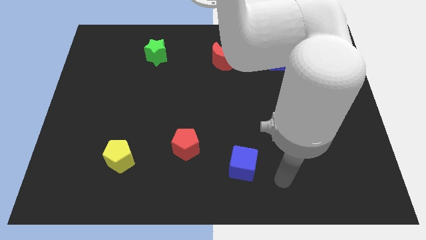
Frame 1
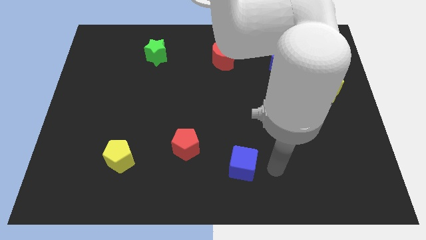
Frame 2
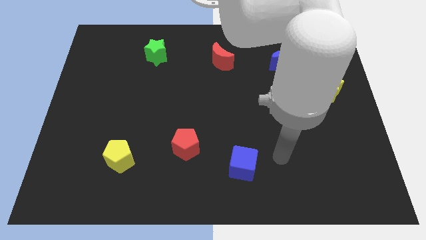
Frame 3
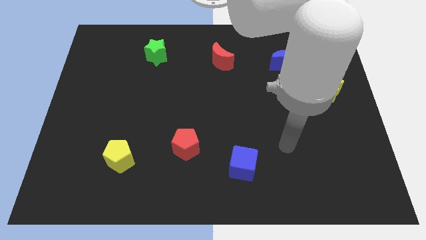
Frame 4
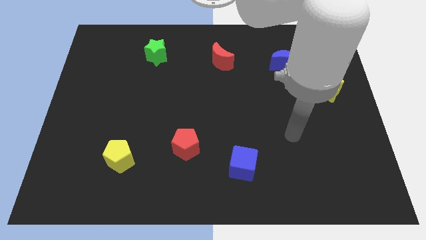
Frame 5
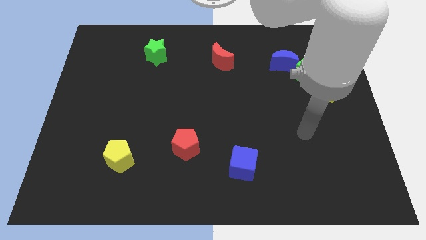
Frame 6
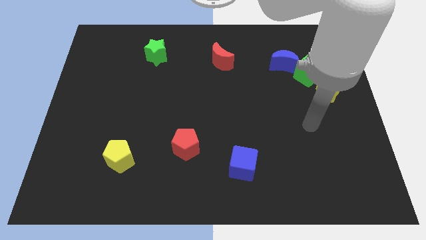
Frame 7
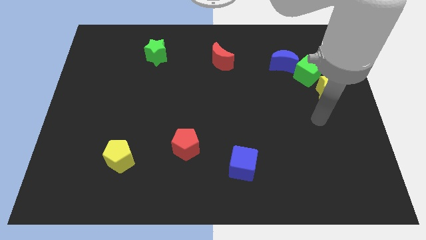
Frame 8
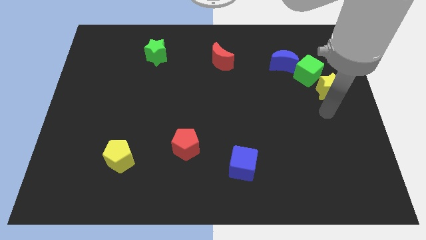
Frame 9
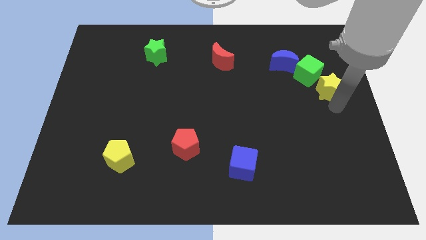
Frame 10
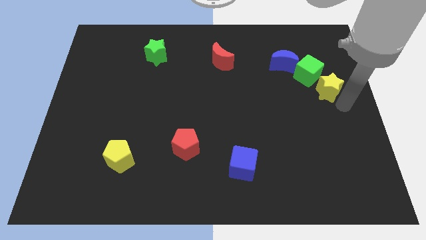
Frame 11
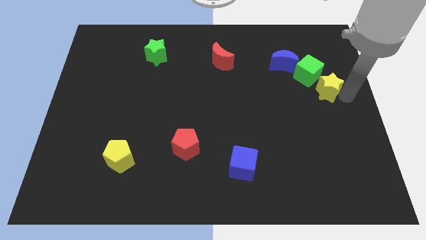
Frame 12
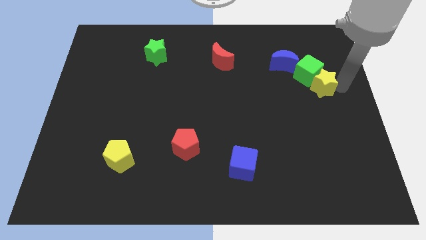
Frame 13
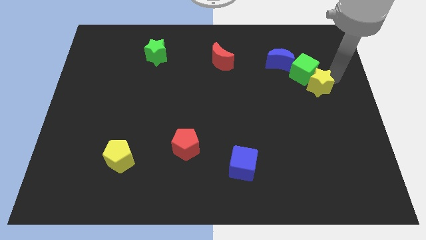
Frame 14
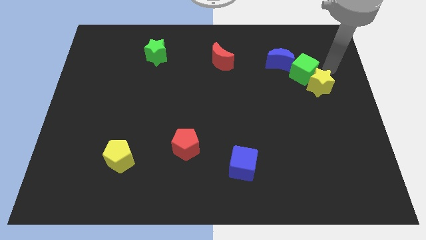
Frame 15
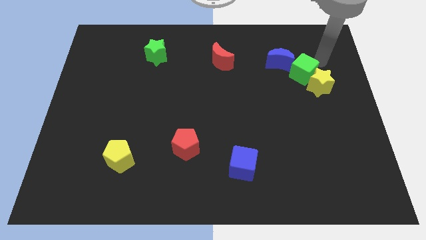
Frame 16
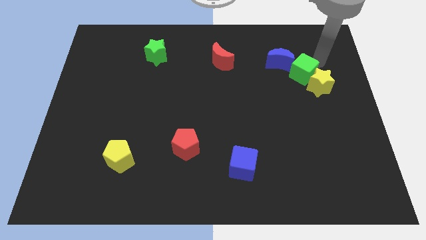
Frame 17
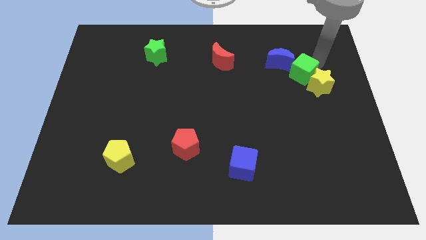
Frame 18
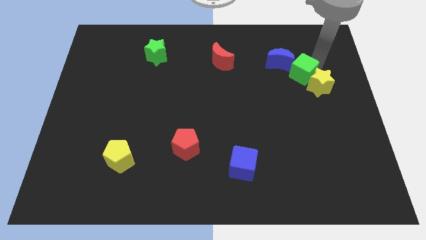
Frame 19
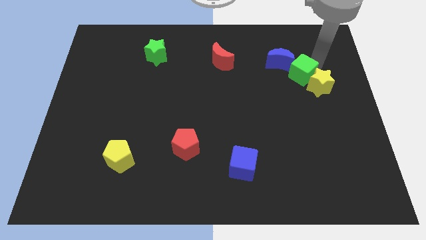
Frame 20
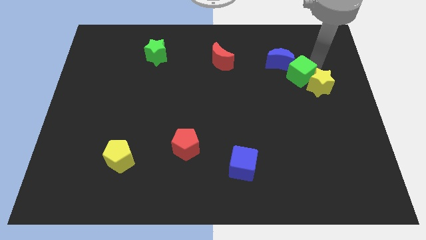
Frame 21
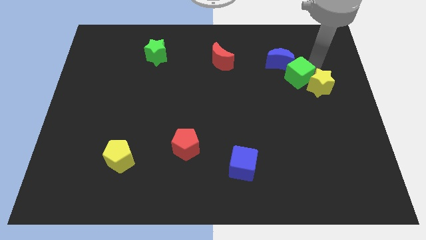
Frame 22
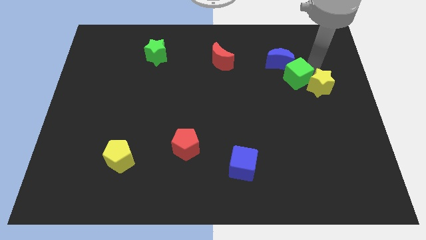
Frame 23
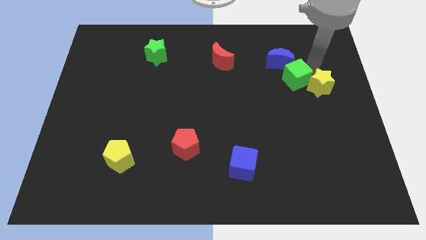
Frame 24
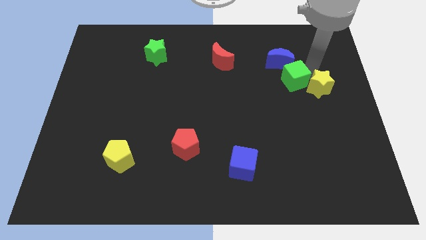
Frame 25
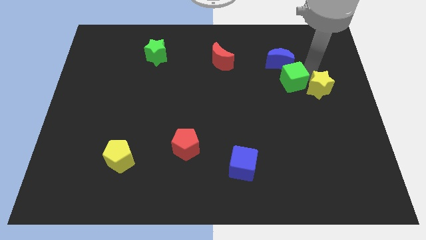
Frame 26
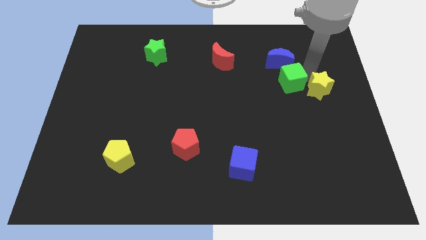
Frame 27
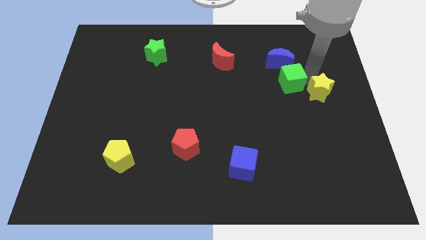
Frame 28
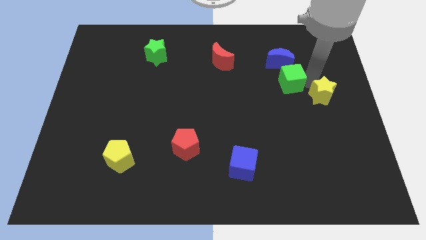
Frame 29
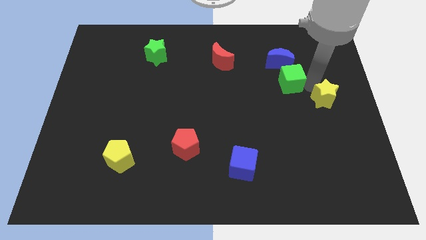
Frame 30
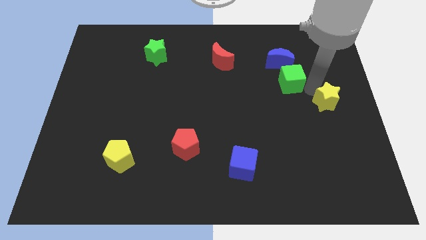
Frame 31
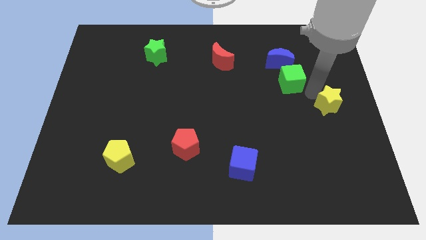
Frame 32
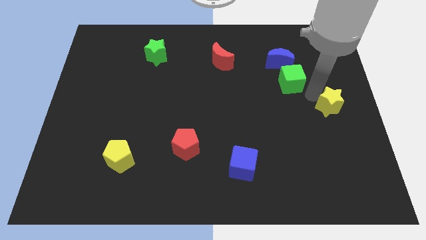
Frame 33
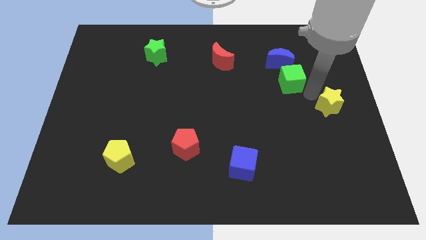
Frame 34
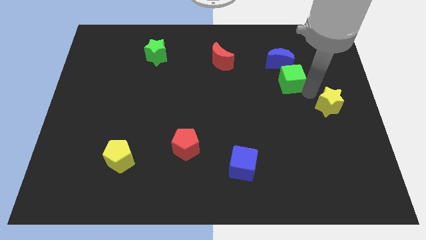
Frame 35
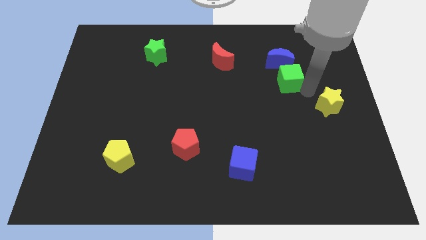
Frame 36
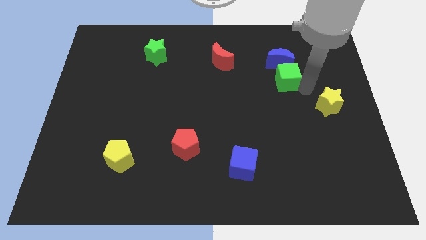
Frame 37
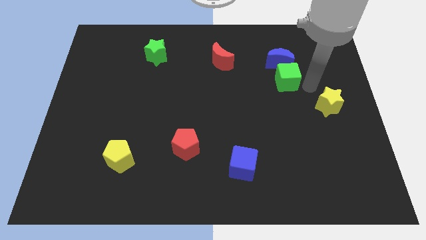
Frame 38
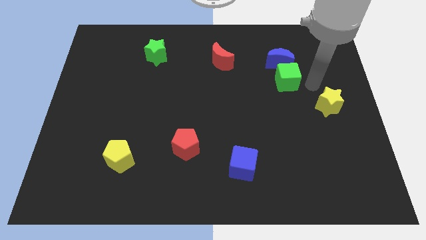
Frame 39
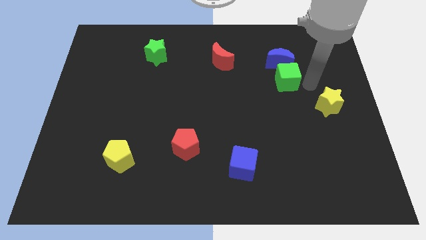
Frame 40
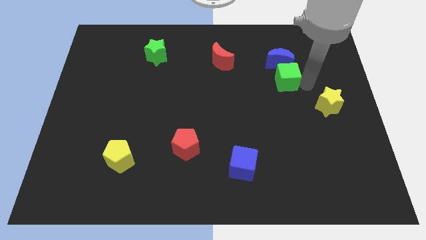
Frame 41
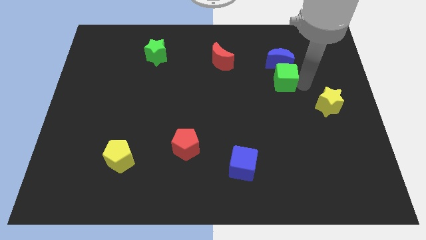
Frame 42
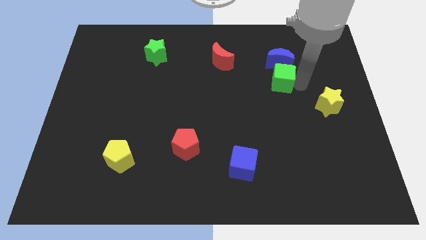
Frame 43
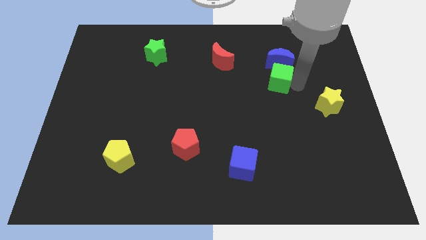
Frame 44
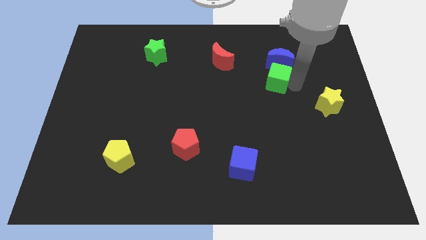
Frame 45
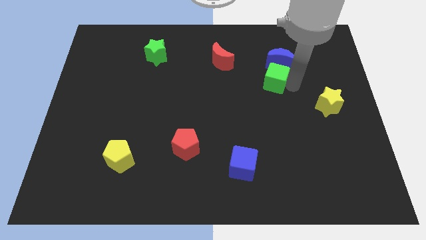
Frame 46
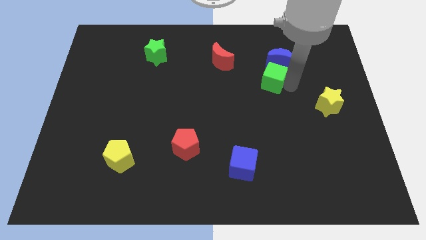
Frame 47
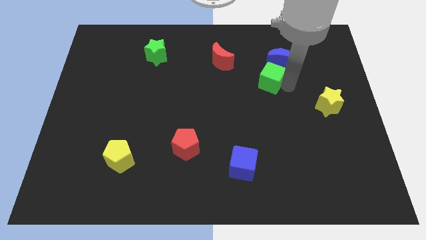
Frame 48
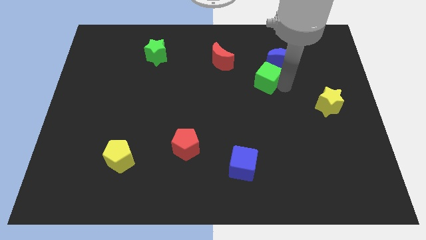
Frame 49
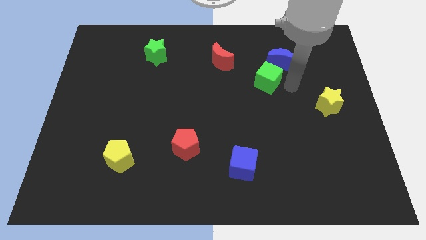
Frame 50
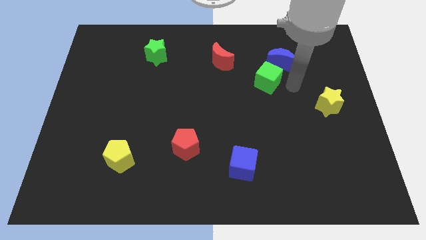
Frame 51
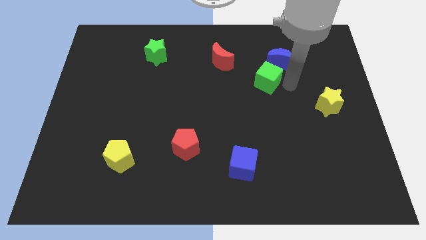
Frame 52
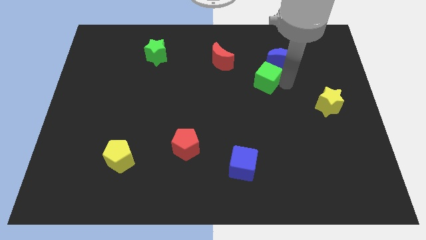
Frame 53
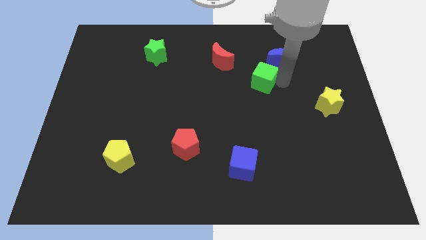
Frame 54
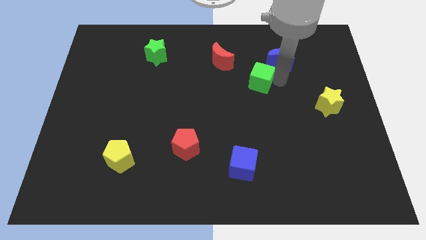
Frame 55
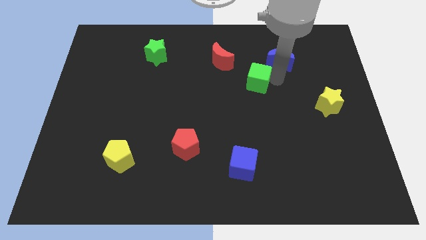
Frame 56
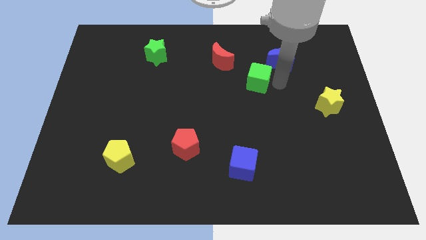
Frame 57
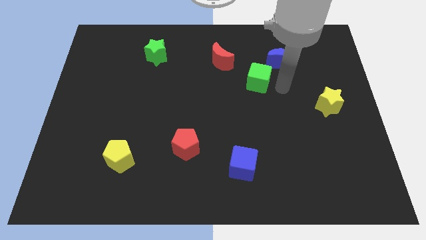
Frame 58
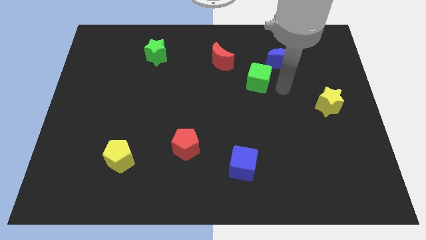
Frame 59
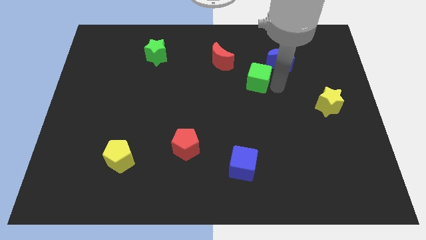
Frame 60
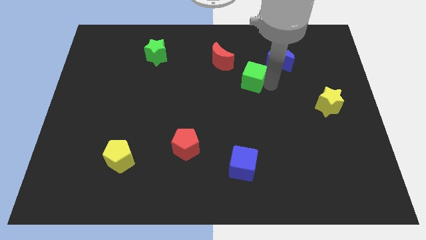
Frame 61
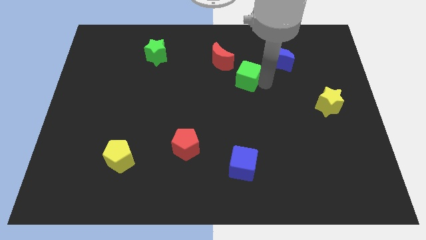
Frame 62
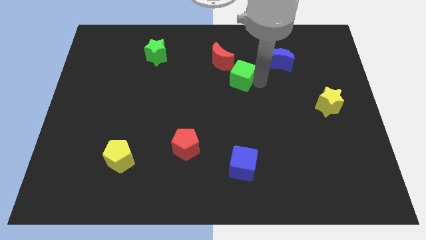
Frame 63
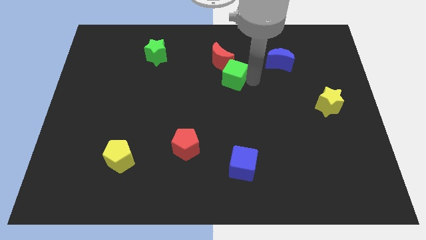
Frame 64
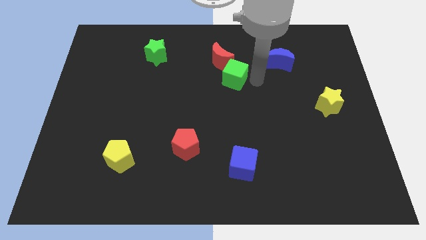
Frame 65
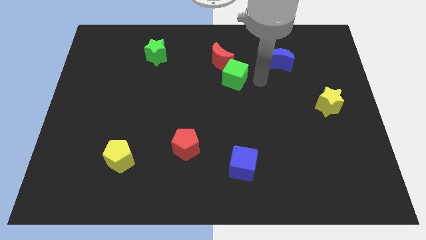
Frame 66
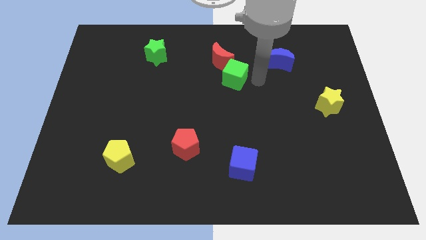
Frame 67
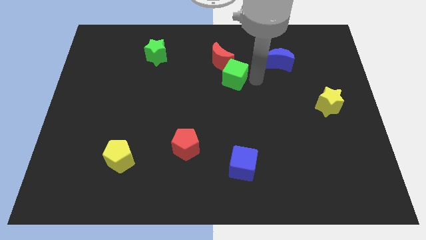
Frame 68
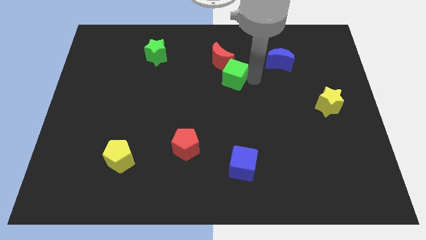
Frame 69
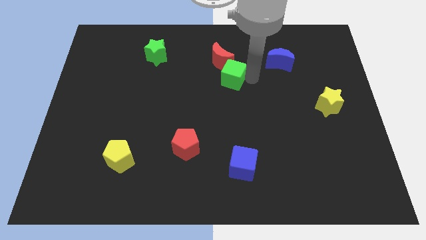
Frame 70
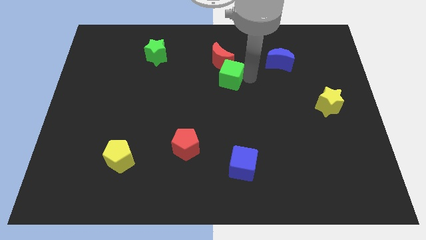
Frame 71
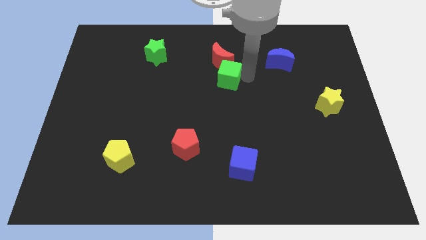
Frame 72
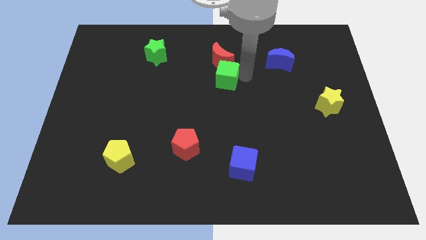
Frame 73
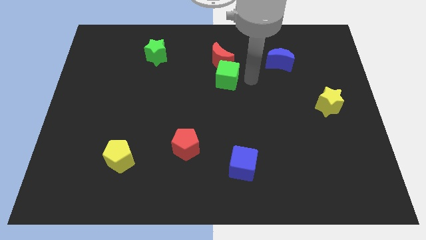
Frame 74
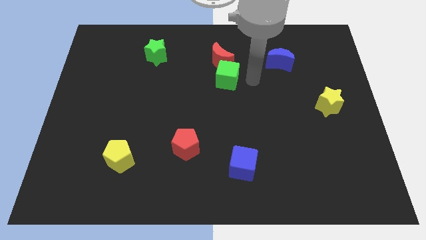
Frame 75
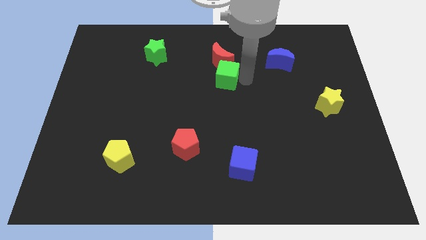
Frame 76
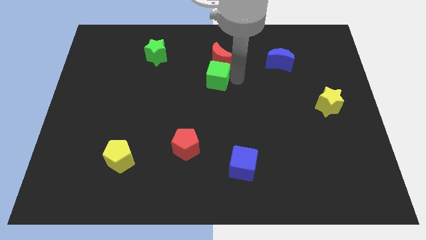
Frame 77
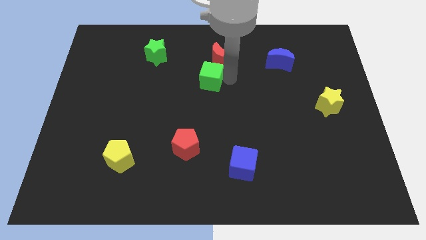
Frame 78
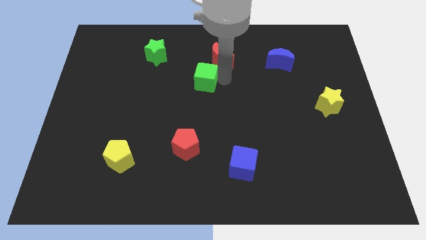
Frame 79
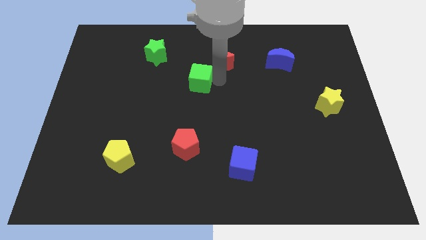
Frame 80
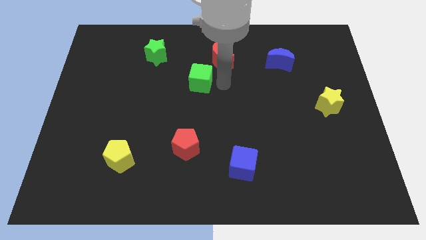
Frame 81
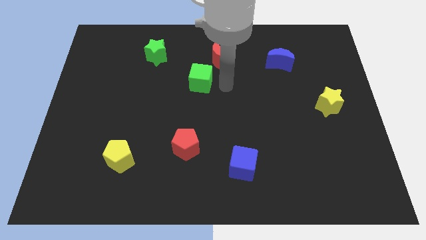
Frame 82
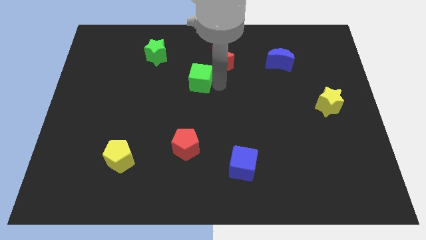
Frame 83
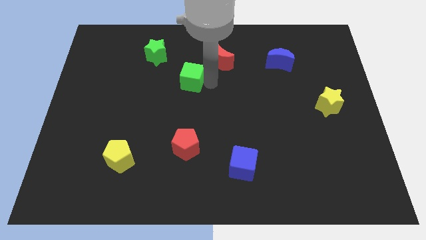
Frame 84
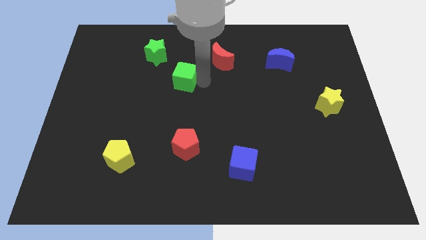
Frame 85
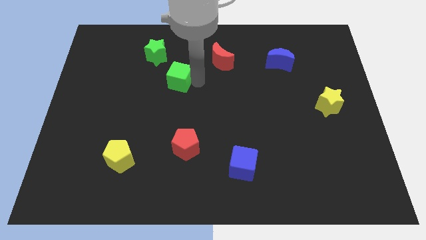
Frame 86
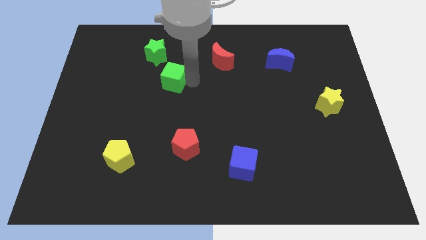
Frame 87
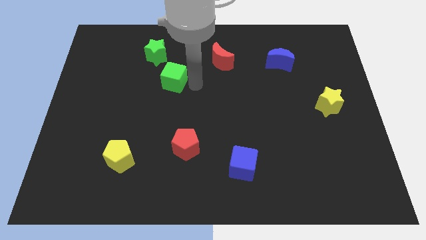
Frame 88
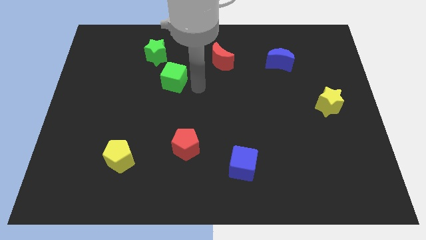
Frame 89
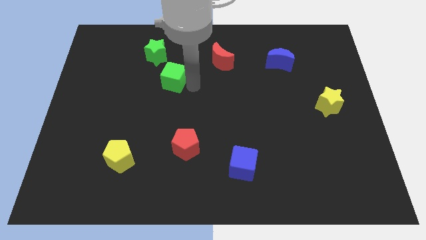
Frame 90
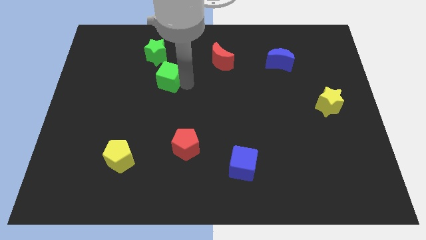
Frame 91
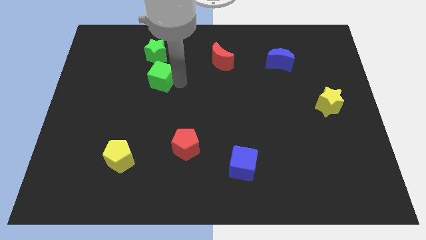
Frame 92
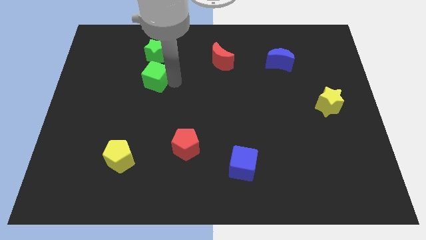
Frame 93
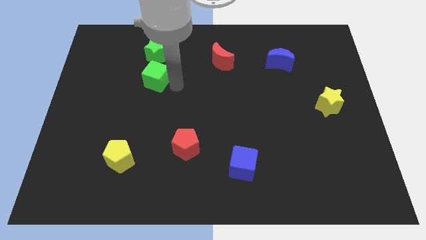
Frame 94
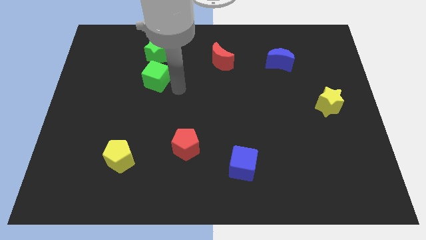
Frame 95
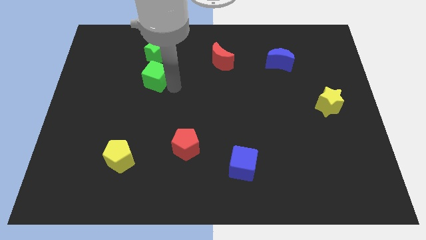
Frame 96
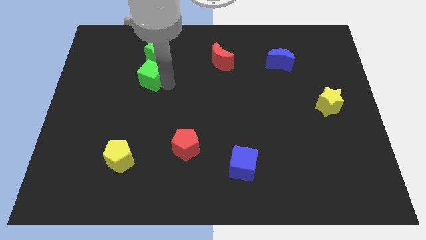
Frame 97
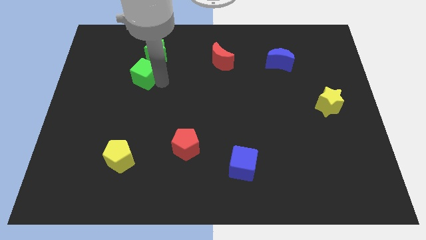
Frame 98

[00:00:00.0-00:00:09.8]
slide the green cube diagonally down and to the left of the green star
